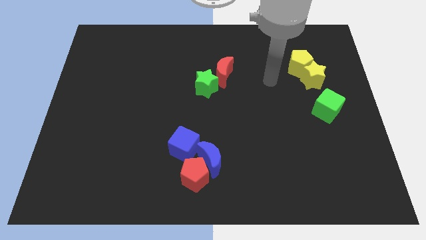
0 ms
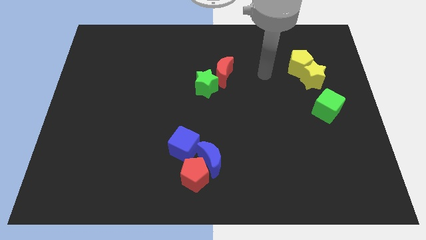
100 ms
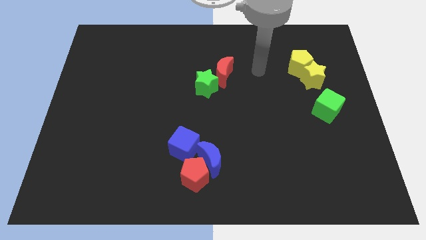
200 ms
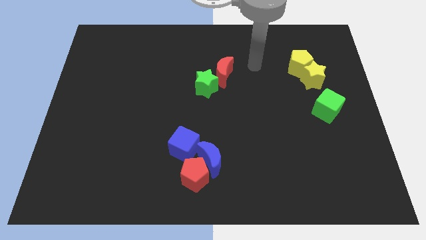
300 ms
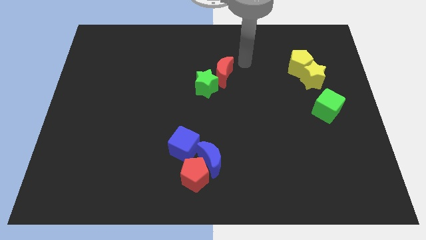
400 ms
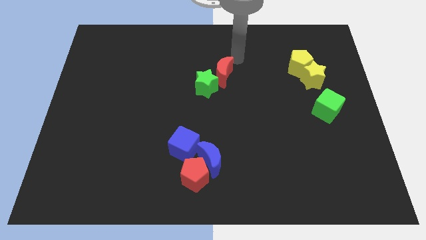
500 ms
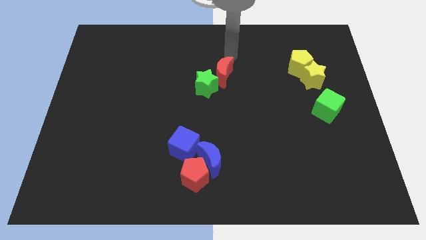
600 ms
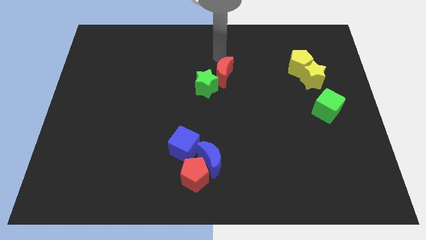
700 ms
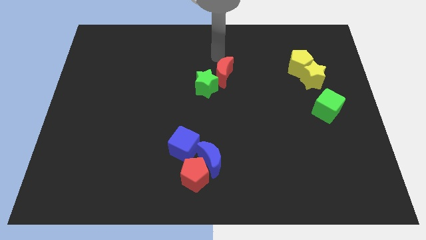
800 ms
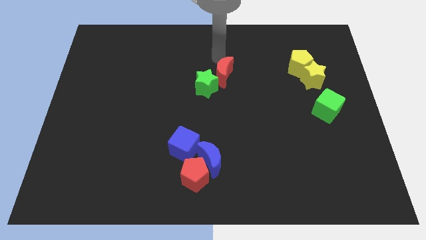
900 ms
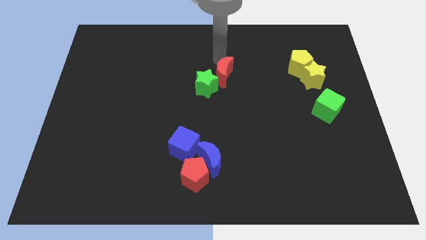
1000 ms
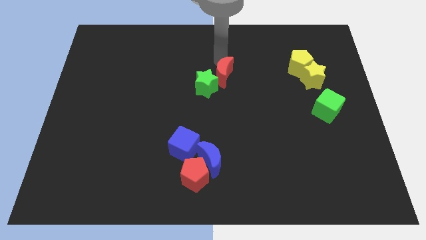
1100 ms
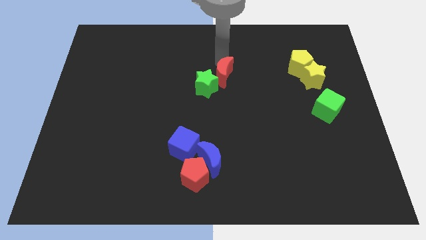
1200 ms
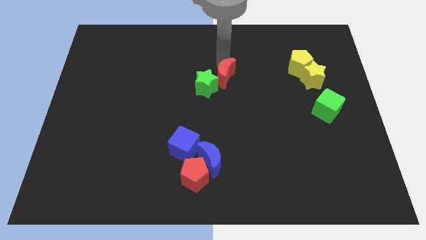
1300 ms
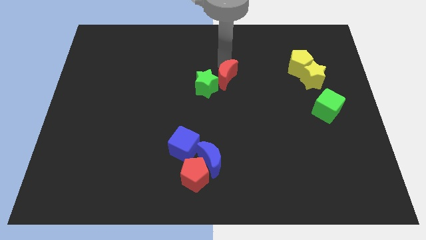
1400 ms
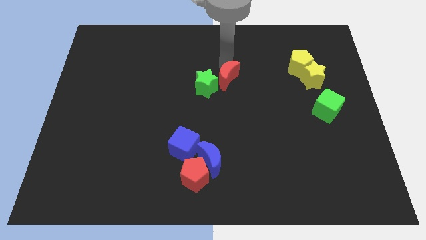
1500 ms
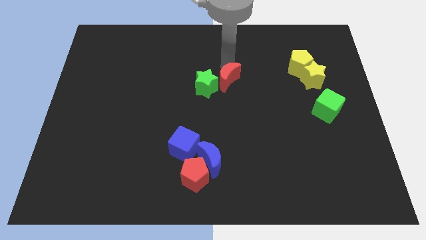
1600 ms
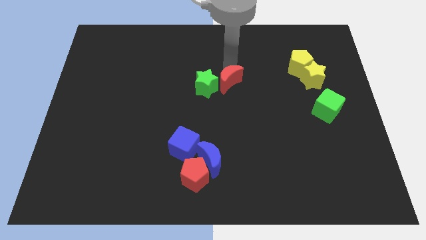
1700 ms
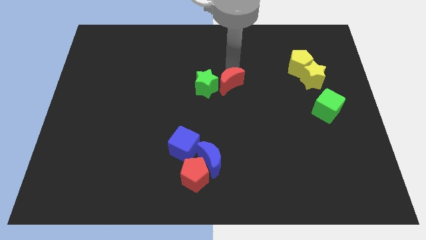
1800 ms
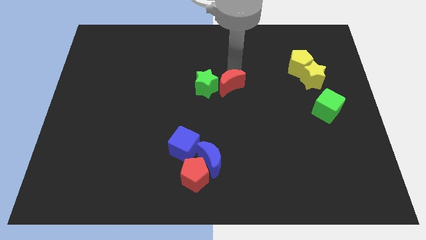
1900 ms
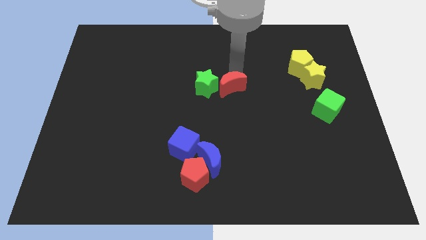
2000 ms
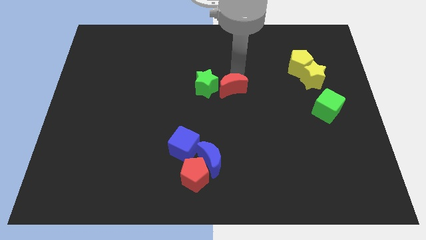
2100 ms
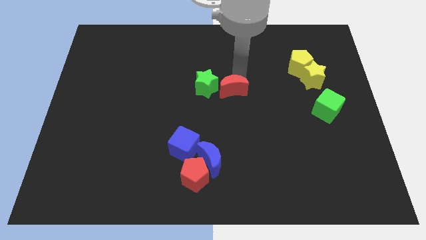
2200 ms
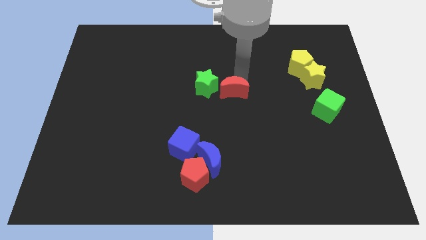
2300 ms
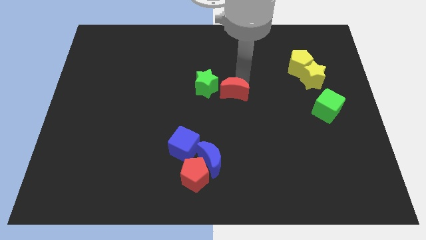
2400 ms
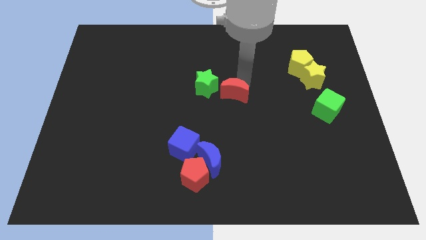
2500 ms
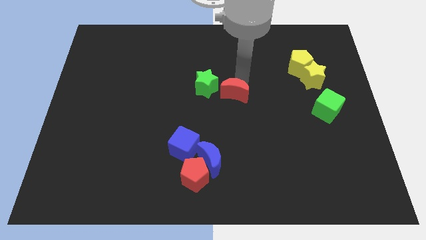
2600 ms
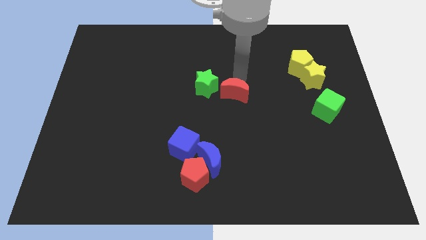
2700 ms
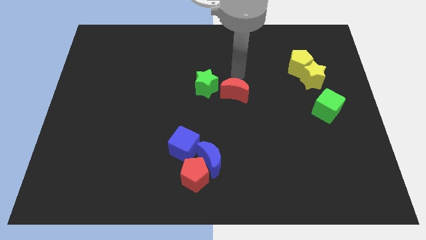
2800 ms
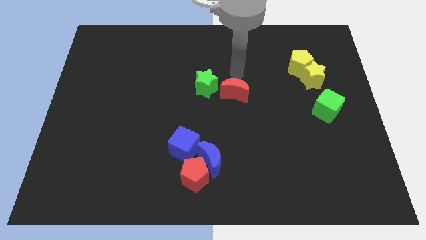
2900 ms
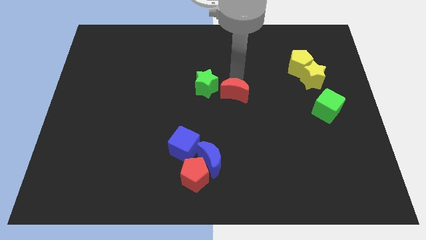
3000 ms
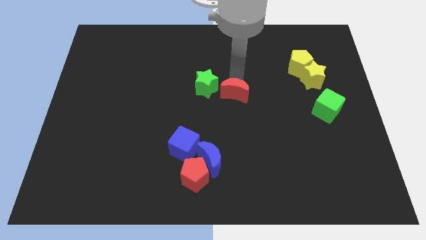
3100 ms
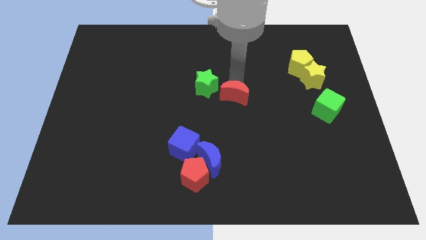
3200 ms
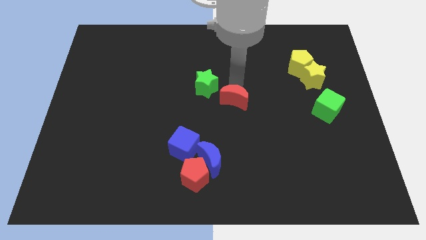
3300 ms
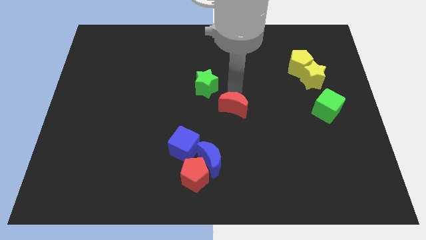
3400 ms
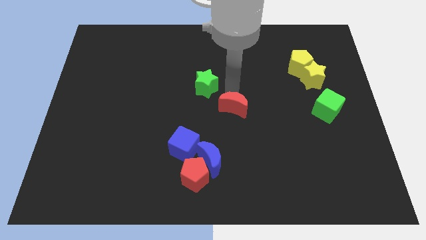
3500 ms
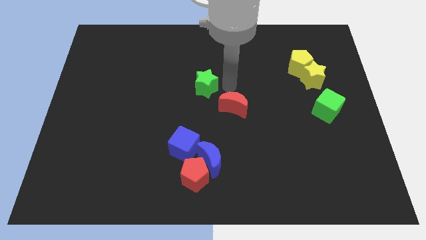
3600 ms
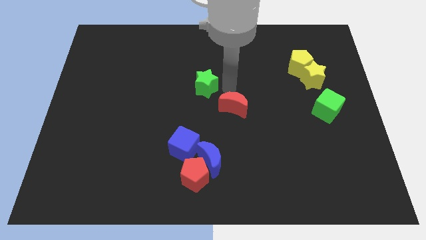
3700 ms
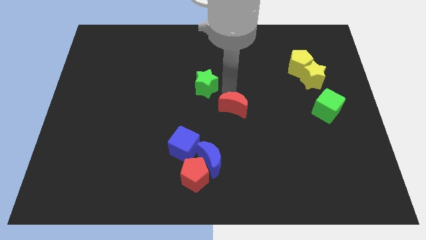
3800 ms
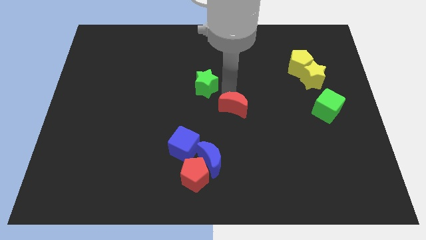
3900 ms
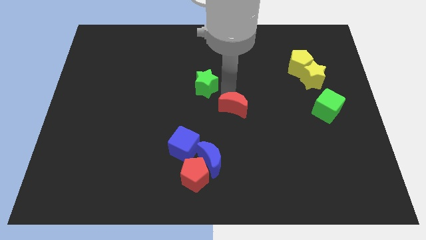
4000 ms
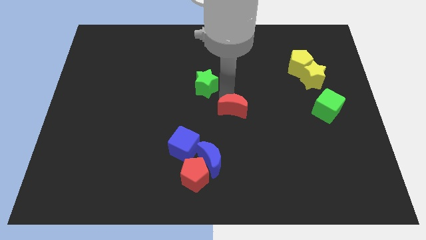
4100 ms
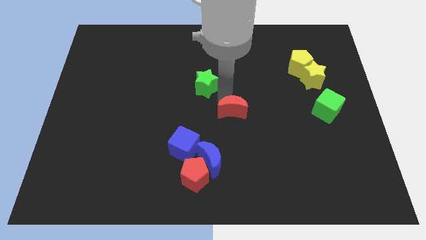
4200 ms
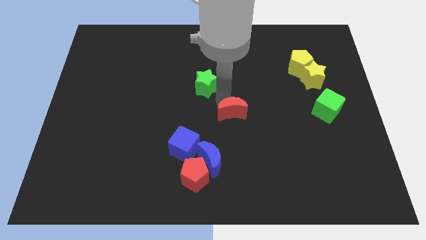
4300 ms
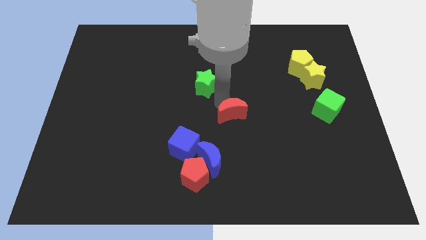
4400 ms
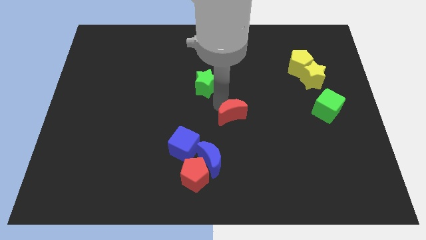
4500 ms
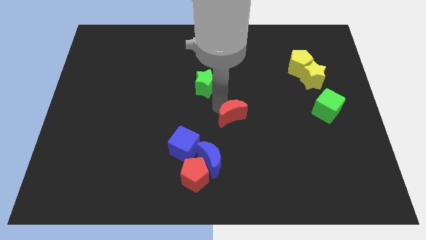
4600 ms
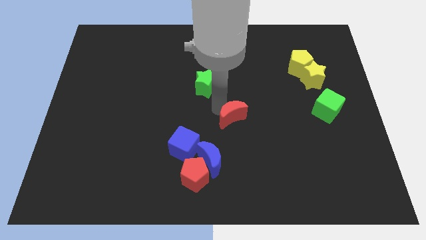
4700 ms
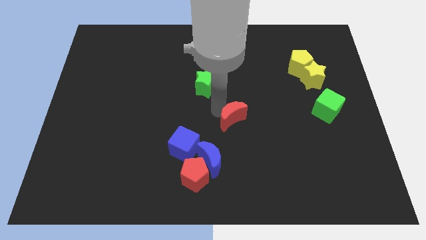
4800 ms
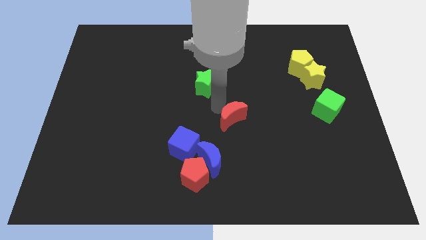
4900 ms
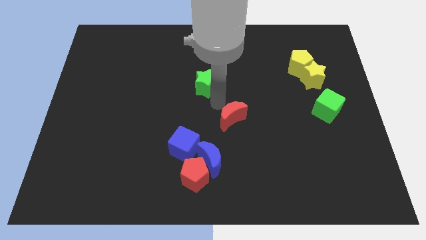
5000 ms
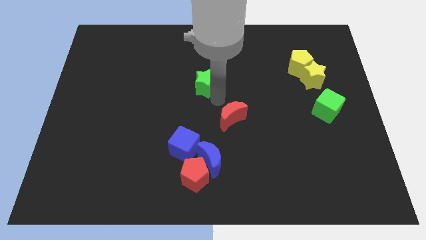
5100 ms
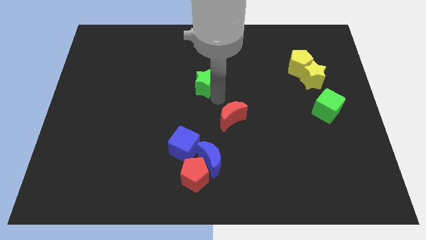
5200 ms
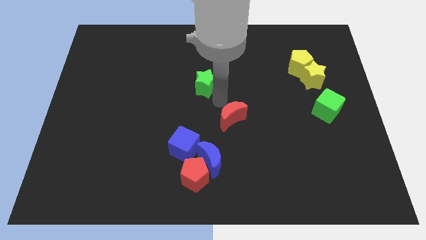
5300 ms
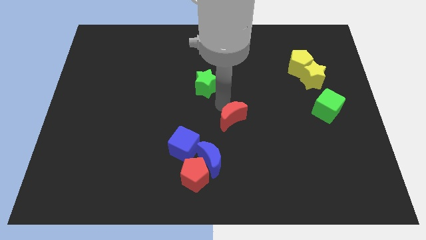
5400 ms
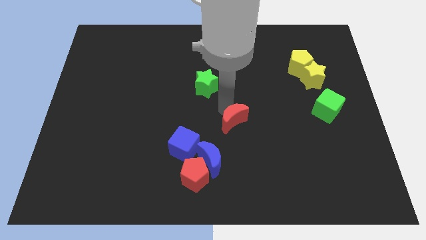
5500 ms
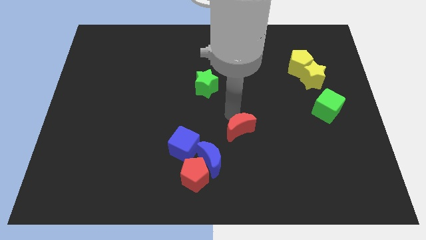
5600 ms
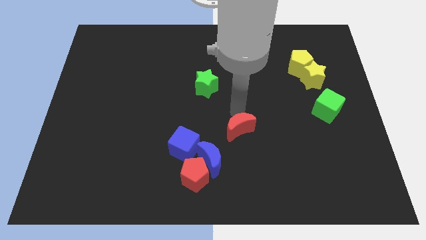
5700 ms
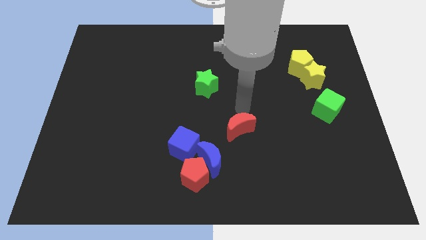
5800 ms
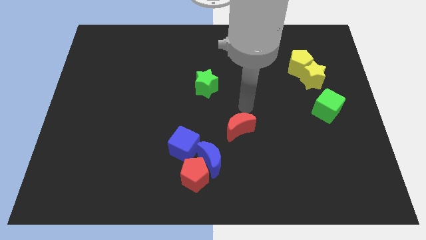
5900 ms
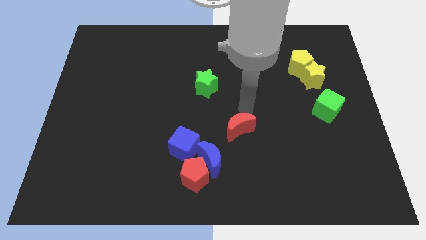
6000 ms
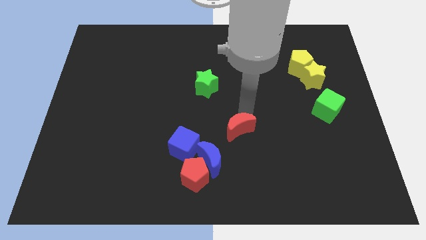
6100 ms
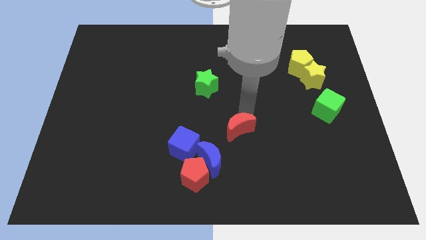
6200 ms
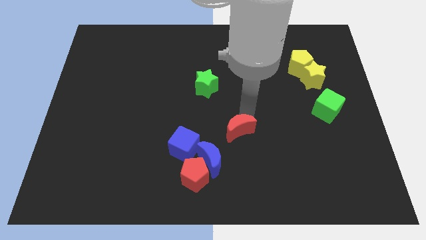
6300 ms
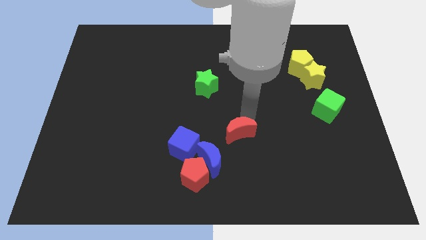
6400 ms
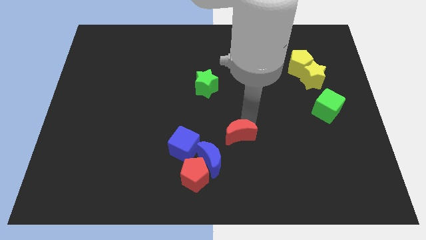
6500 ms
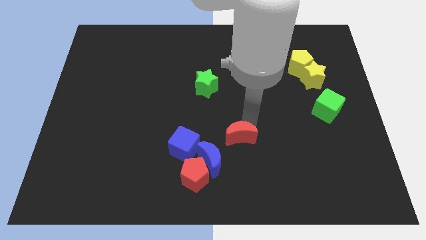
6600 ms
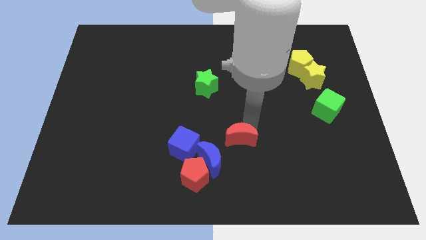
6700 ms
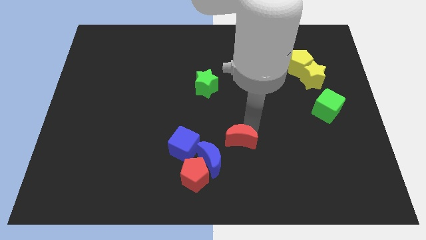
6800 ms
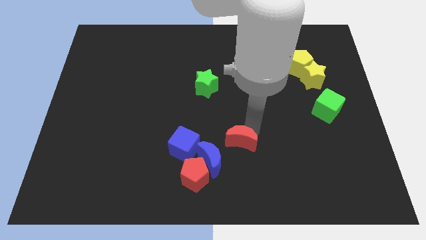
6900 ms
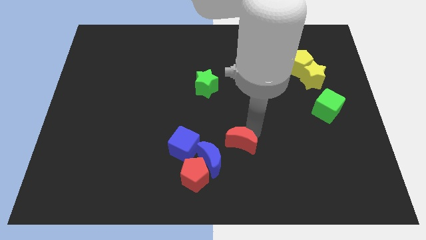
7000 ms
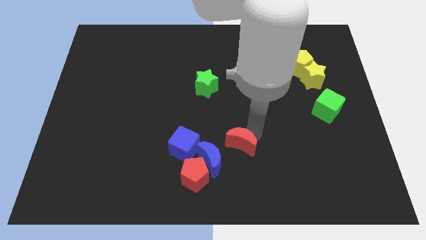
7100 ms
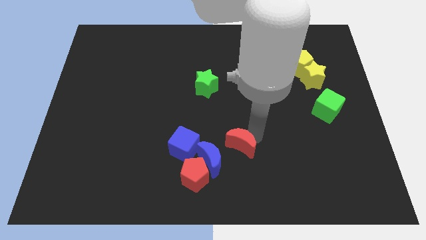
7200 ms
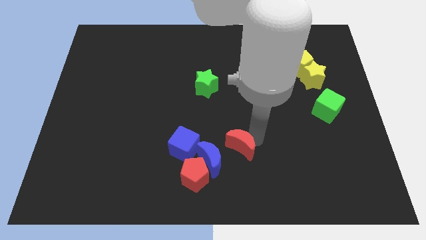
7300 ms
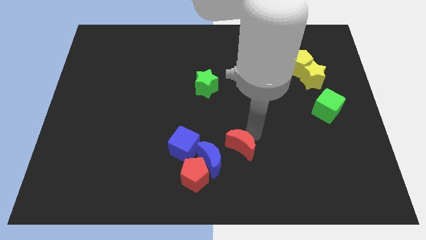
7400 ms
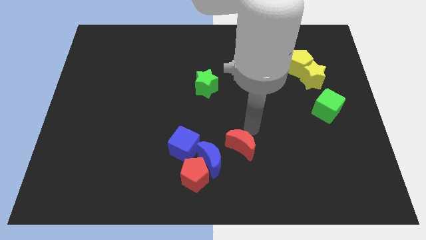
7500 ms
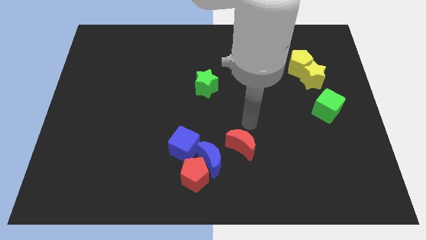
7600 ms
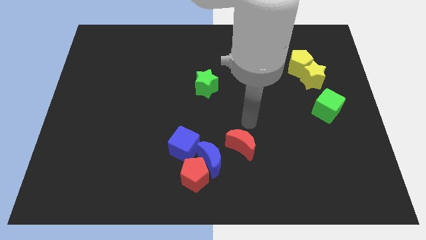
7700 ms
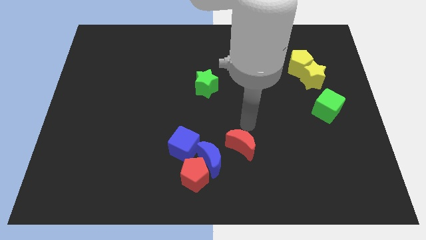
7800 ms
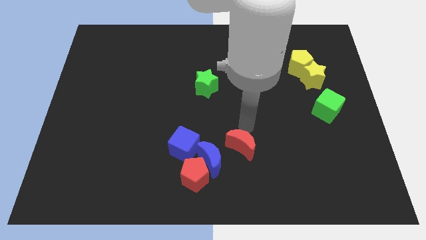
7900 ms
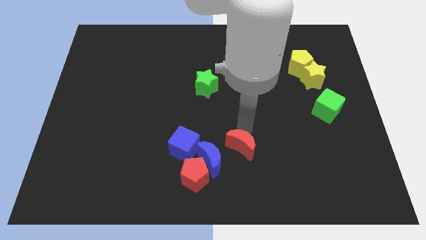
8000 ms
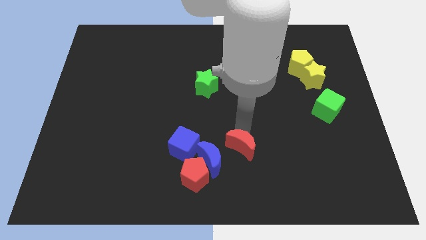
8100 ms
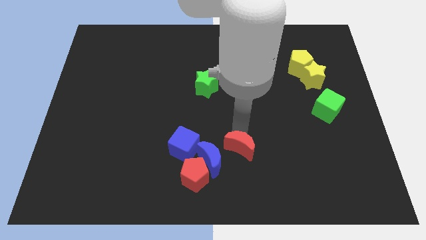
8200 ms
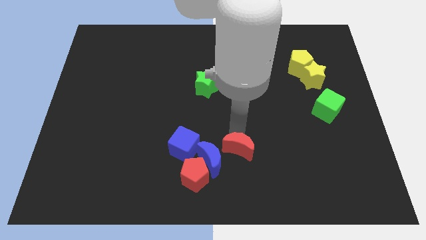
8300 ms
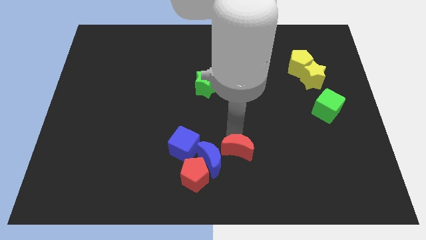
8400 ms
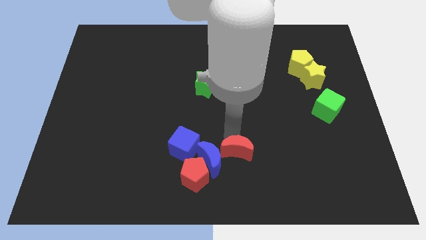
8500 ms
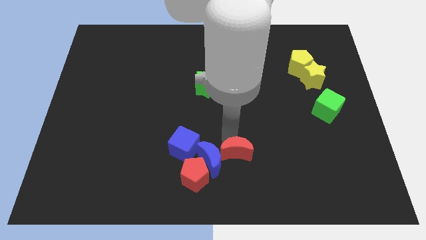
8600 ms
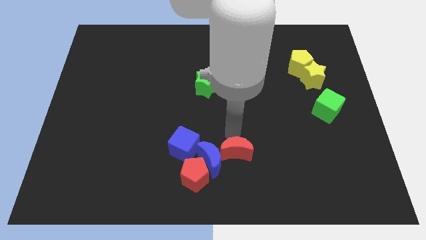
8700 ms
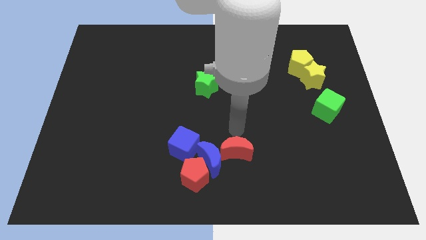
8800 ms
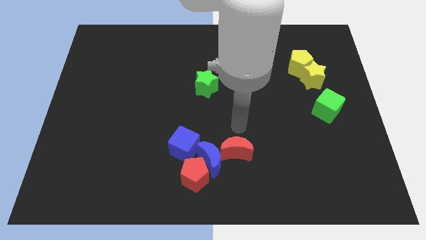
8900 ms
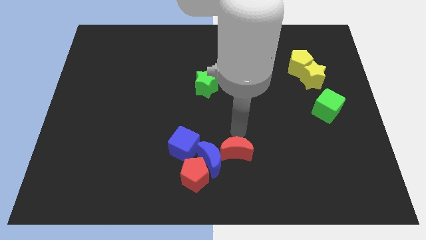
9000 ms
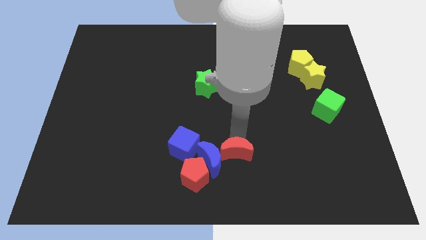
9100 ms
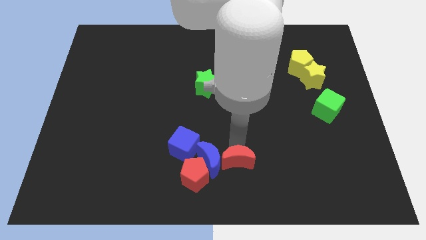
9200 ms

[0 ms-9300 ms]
put the red moon to the bottom side
